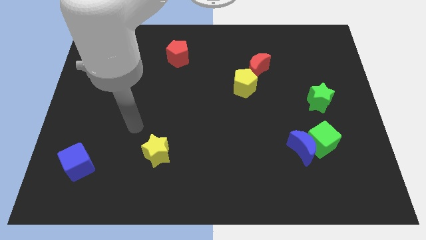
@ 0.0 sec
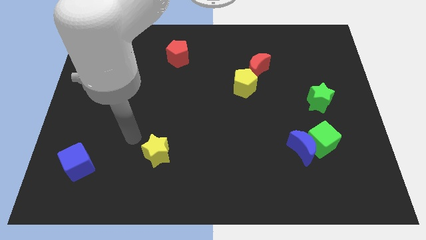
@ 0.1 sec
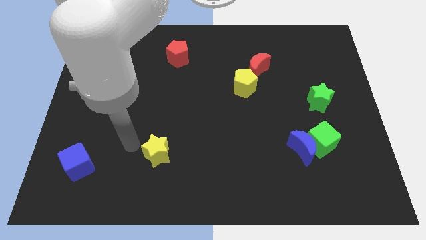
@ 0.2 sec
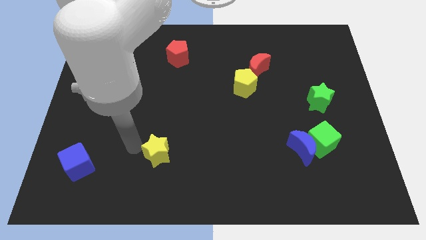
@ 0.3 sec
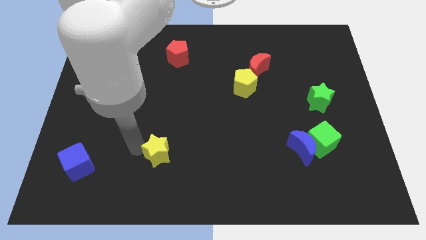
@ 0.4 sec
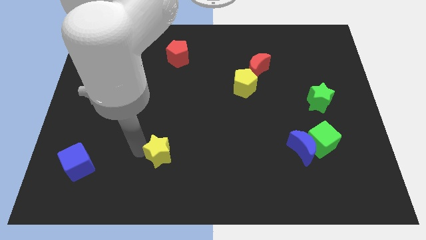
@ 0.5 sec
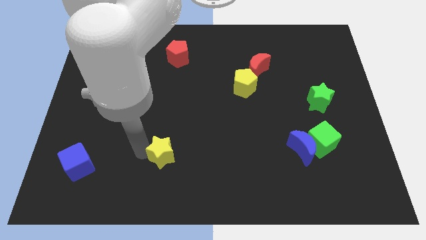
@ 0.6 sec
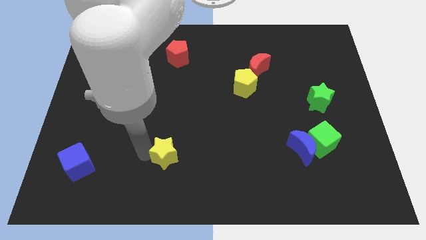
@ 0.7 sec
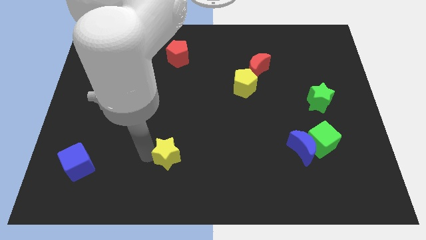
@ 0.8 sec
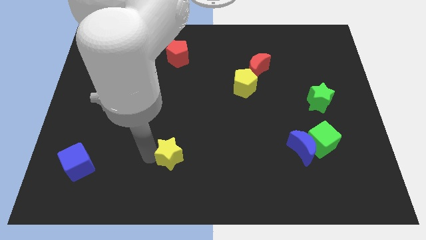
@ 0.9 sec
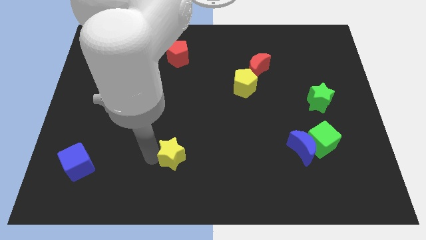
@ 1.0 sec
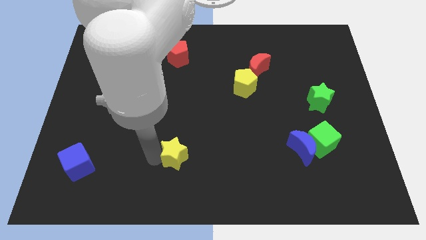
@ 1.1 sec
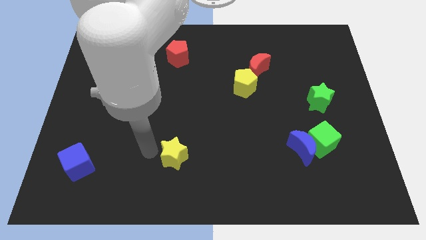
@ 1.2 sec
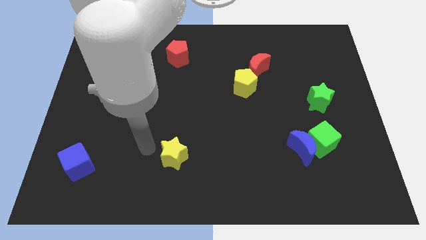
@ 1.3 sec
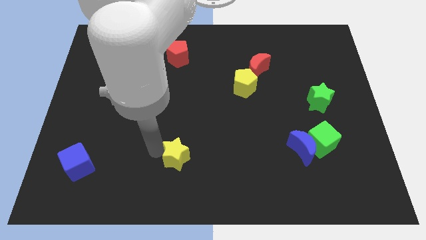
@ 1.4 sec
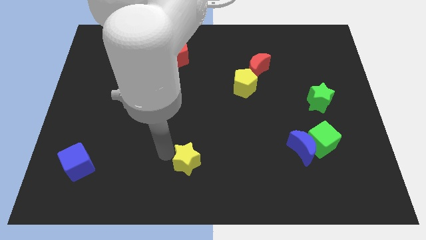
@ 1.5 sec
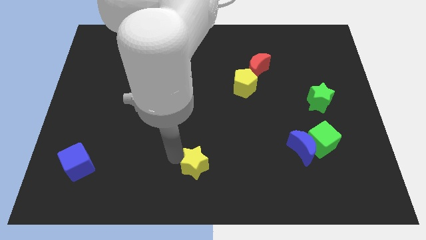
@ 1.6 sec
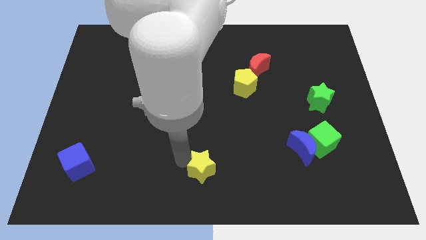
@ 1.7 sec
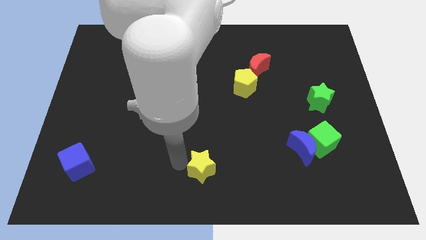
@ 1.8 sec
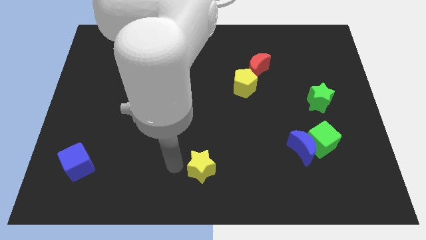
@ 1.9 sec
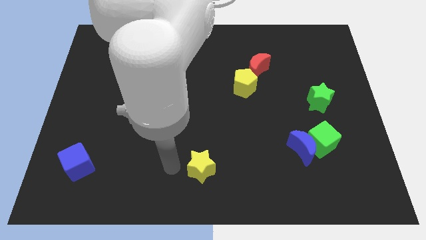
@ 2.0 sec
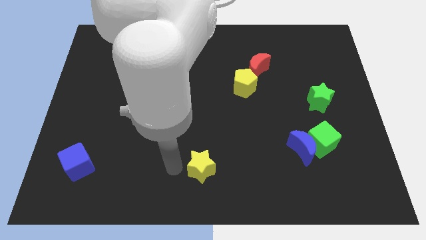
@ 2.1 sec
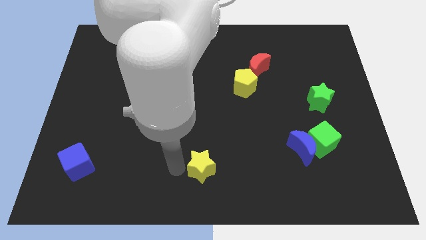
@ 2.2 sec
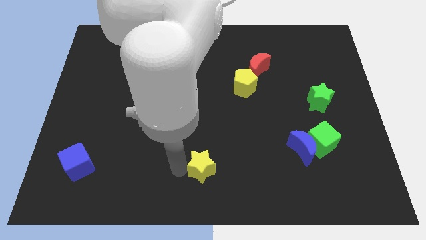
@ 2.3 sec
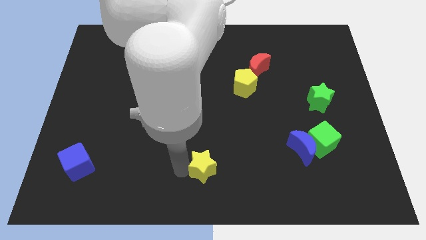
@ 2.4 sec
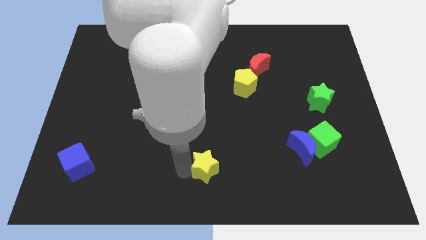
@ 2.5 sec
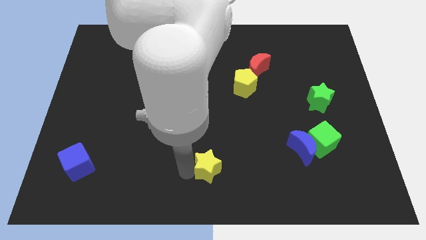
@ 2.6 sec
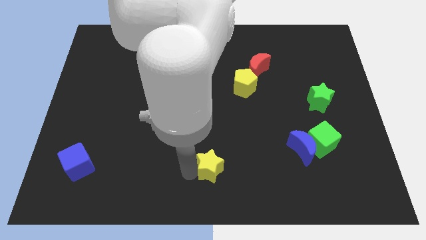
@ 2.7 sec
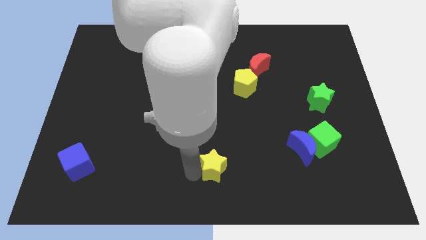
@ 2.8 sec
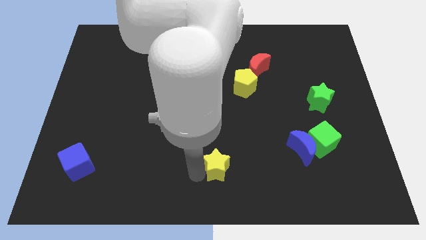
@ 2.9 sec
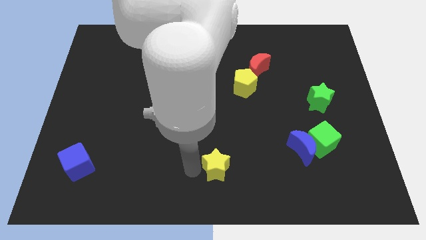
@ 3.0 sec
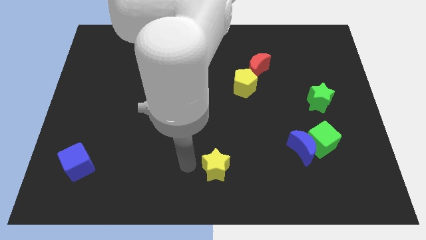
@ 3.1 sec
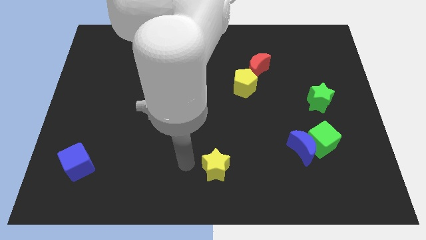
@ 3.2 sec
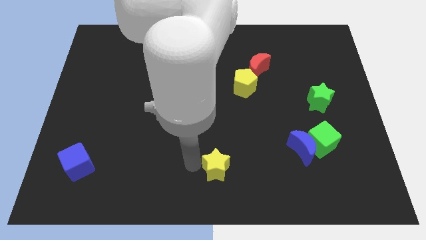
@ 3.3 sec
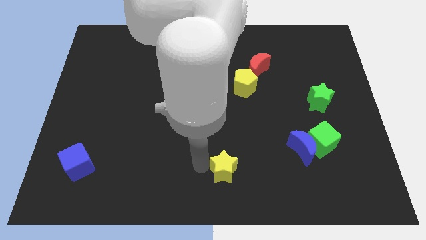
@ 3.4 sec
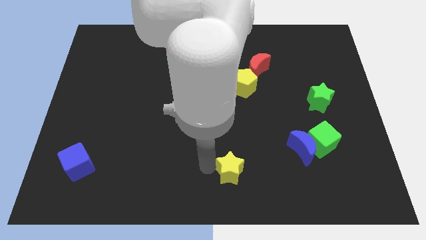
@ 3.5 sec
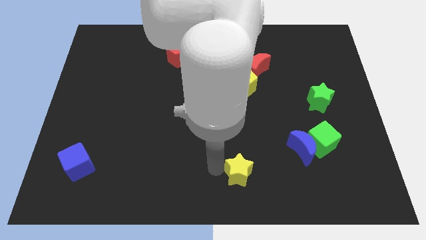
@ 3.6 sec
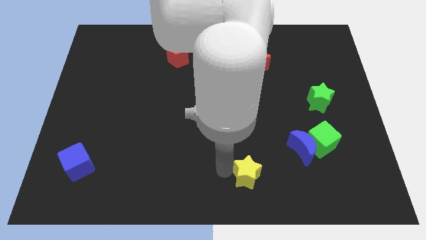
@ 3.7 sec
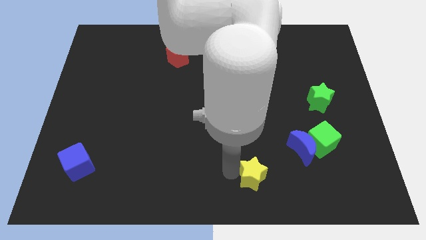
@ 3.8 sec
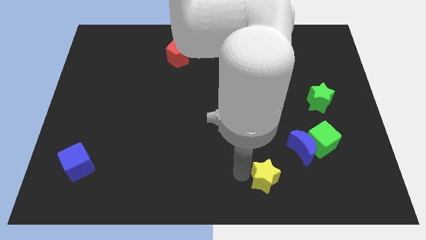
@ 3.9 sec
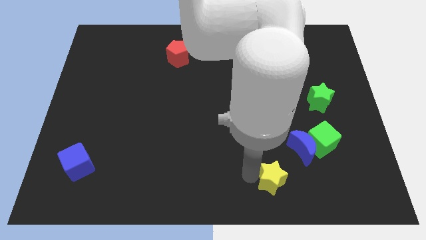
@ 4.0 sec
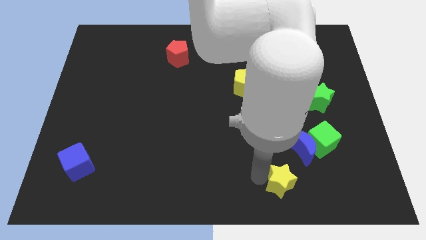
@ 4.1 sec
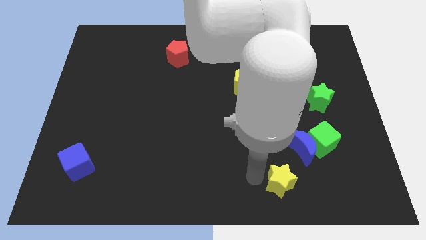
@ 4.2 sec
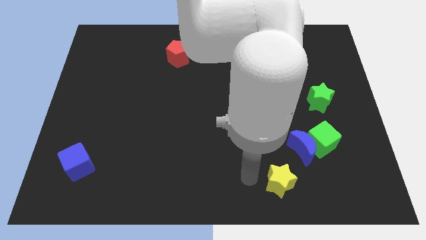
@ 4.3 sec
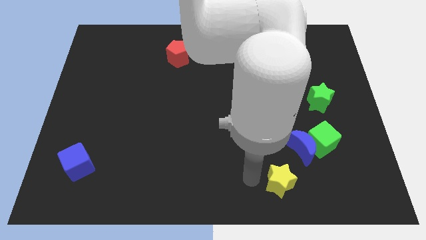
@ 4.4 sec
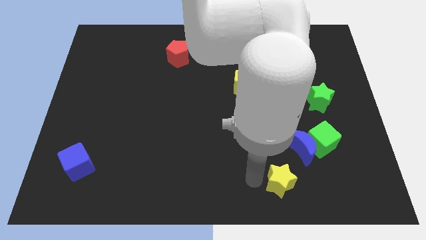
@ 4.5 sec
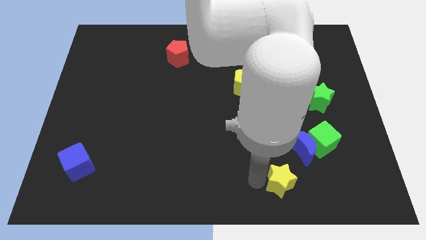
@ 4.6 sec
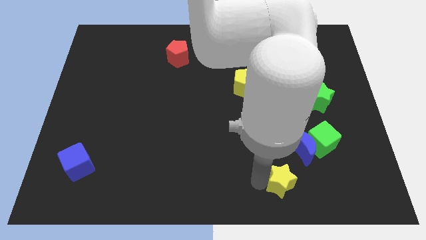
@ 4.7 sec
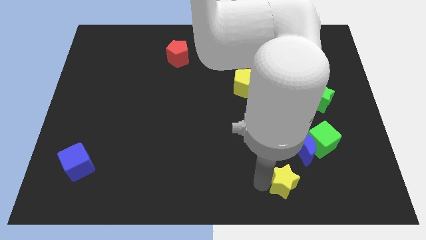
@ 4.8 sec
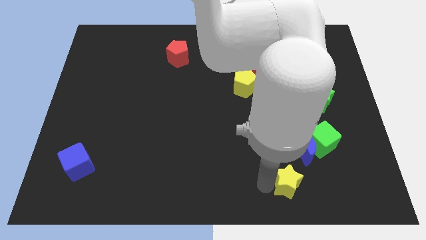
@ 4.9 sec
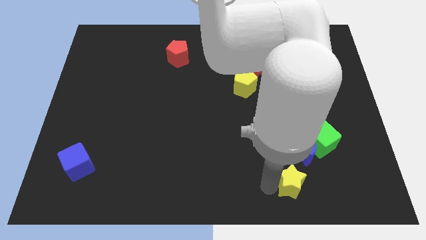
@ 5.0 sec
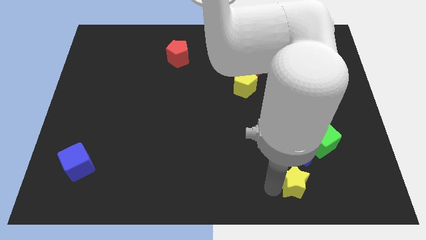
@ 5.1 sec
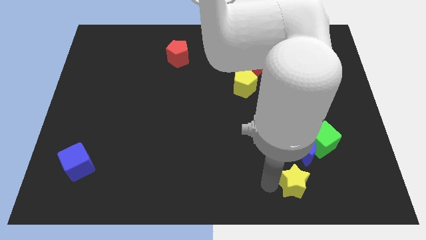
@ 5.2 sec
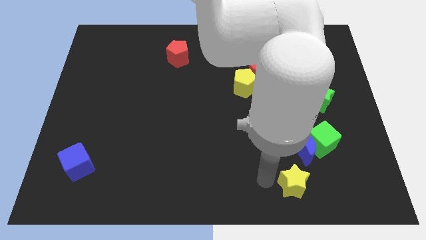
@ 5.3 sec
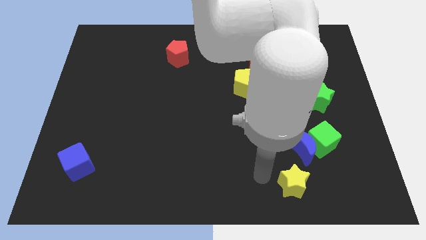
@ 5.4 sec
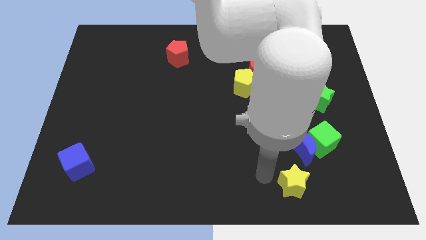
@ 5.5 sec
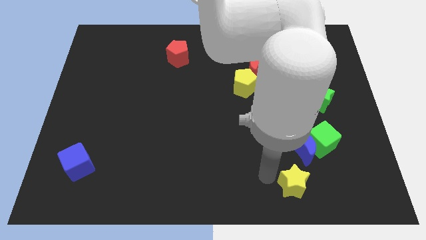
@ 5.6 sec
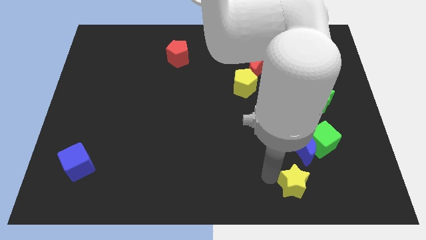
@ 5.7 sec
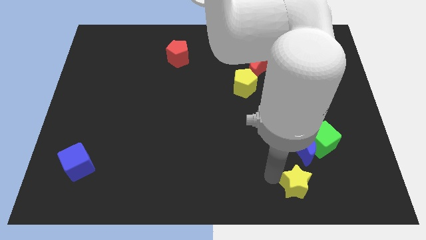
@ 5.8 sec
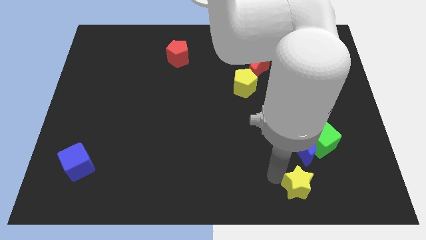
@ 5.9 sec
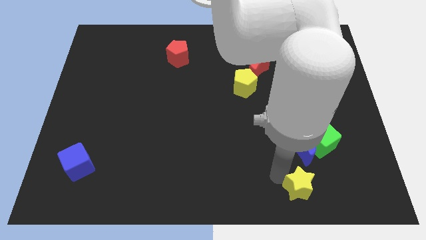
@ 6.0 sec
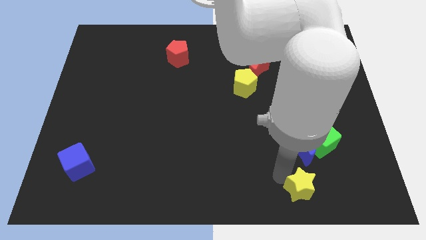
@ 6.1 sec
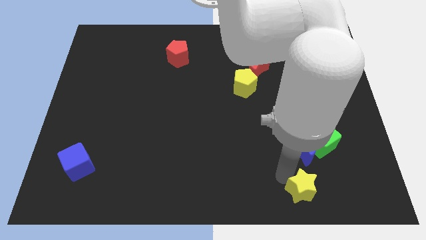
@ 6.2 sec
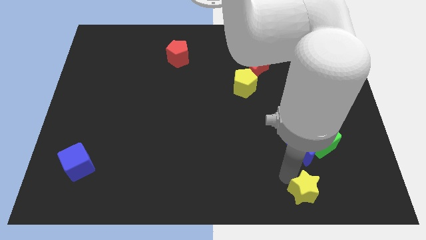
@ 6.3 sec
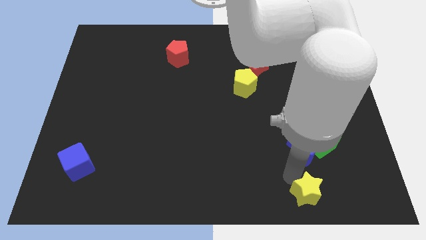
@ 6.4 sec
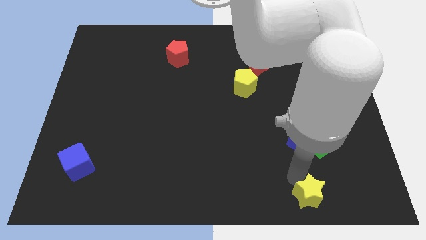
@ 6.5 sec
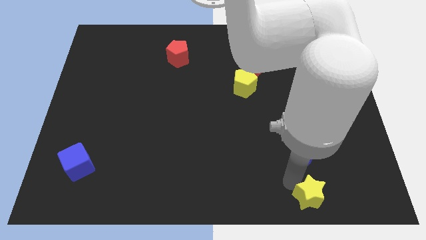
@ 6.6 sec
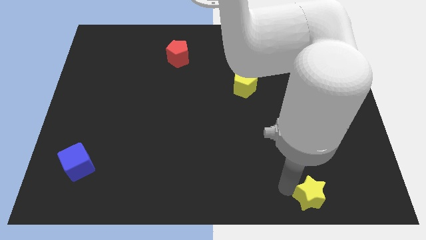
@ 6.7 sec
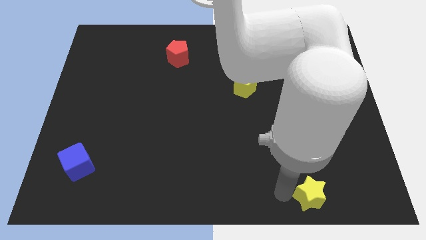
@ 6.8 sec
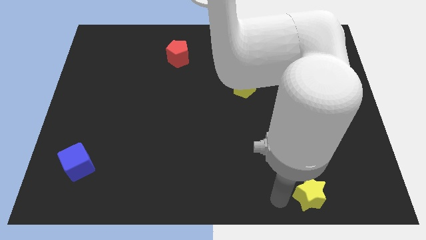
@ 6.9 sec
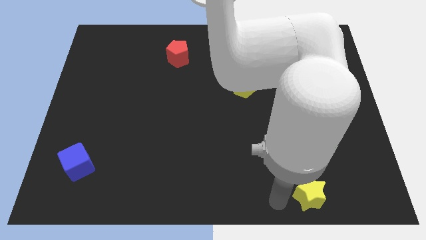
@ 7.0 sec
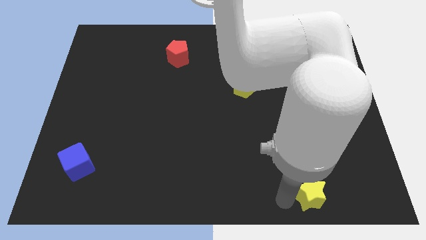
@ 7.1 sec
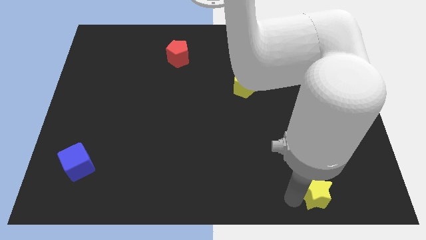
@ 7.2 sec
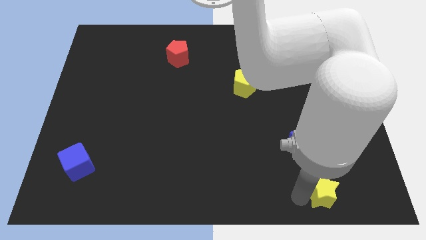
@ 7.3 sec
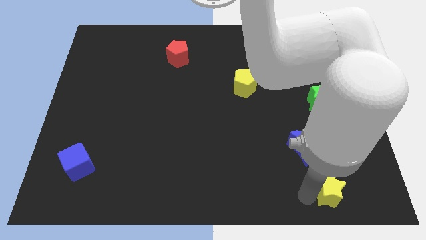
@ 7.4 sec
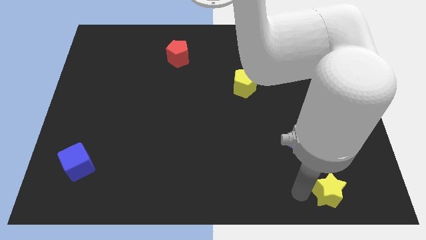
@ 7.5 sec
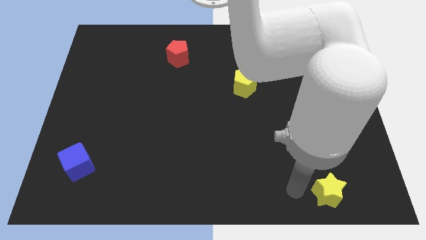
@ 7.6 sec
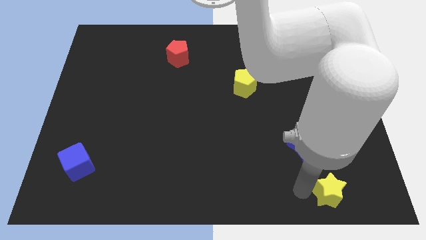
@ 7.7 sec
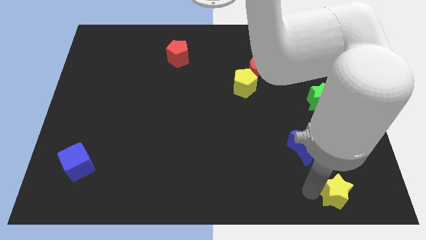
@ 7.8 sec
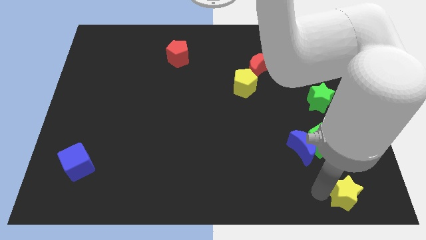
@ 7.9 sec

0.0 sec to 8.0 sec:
move the yellow star to the bottom right of the board
